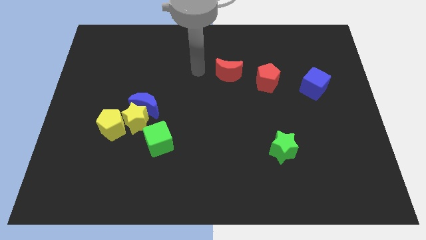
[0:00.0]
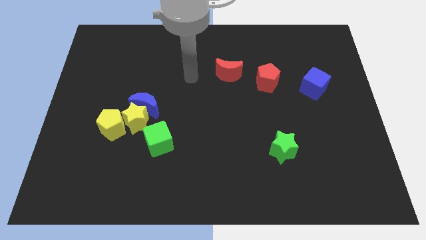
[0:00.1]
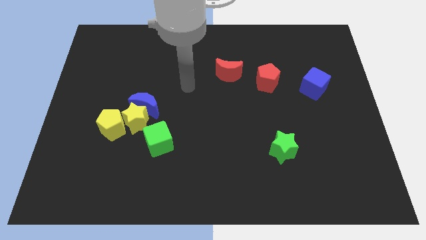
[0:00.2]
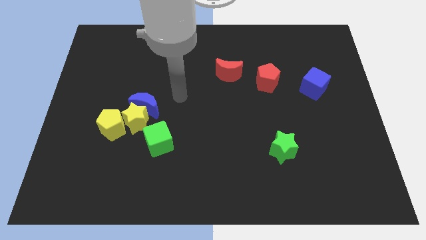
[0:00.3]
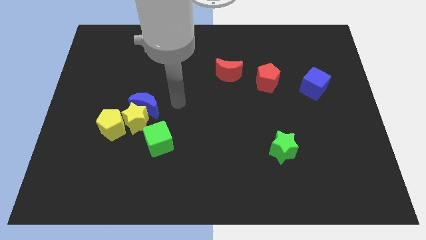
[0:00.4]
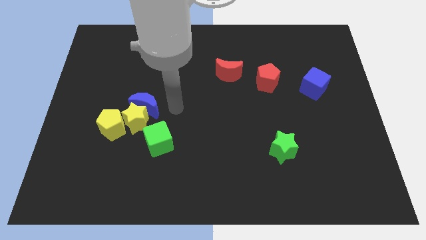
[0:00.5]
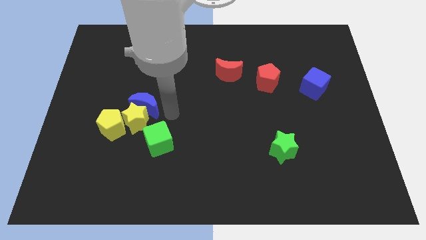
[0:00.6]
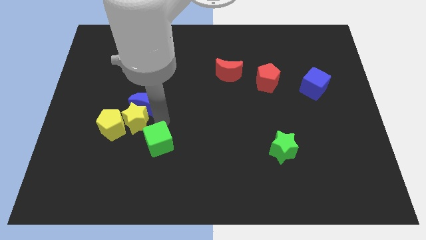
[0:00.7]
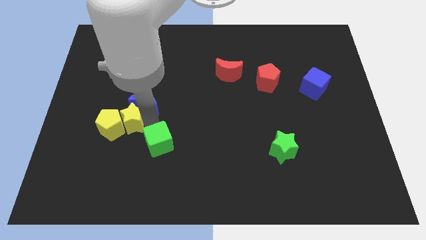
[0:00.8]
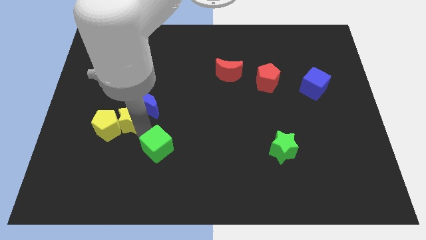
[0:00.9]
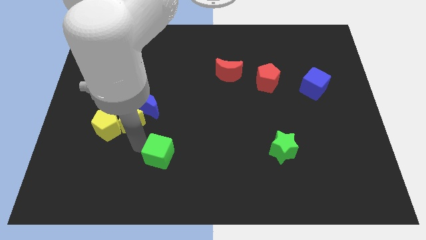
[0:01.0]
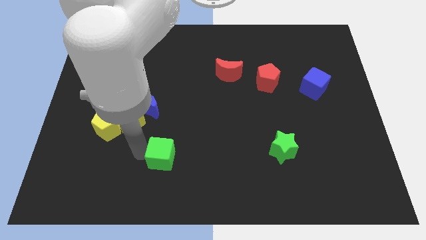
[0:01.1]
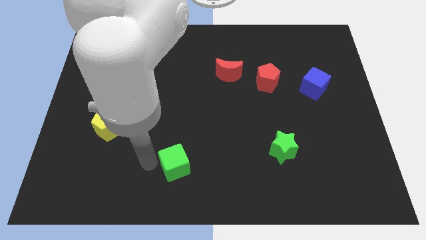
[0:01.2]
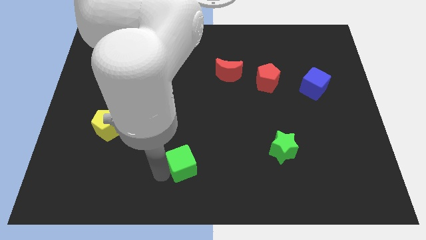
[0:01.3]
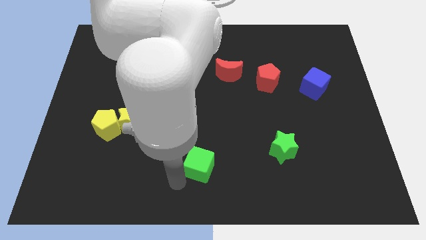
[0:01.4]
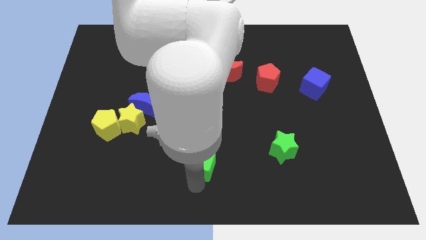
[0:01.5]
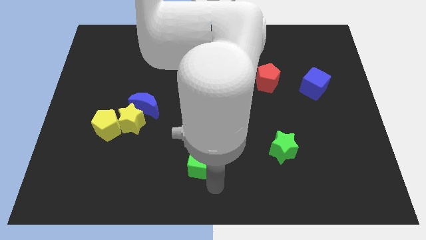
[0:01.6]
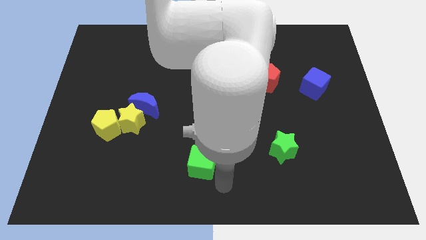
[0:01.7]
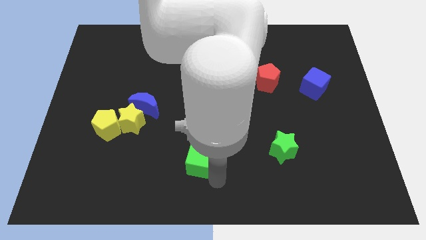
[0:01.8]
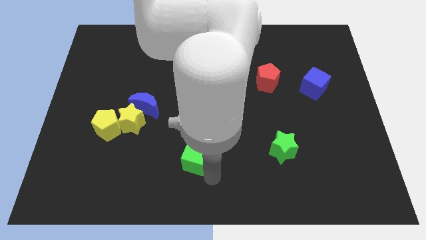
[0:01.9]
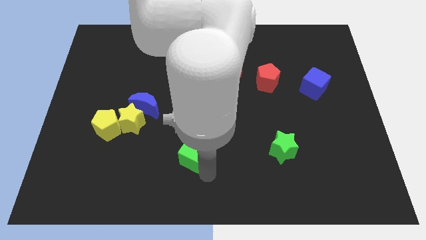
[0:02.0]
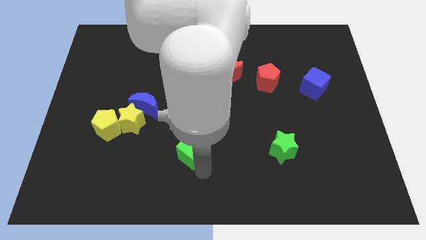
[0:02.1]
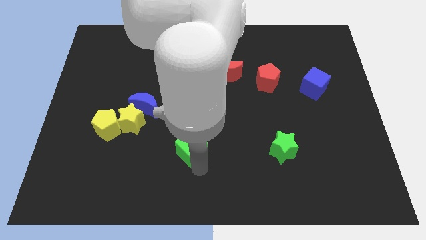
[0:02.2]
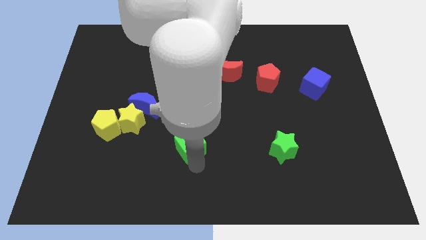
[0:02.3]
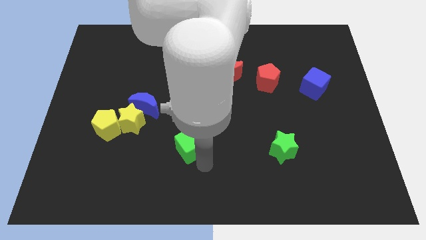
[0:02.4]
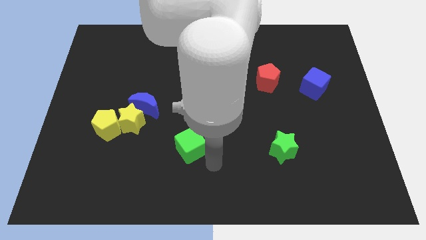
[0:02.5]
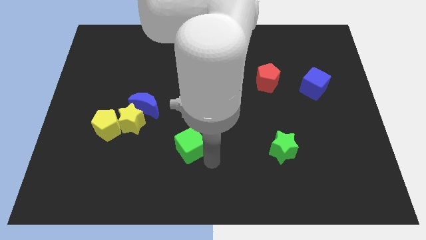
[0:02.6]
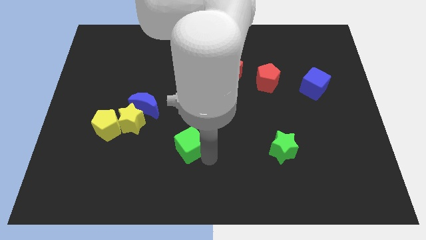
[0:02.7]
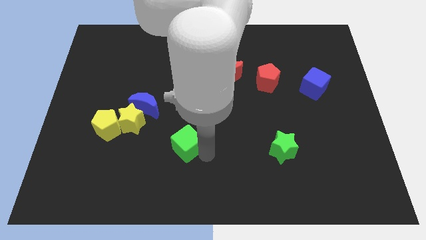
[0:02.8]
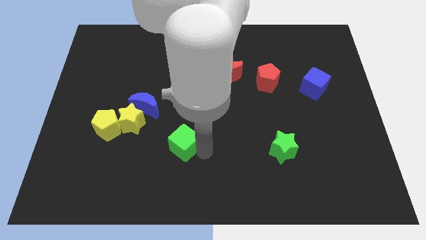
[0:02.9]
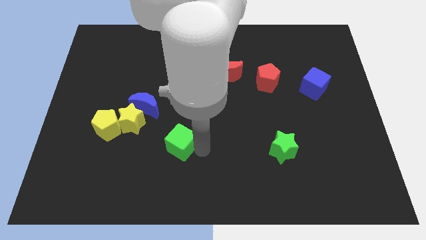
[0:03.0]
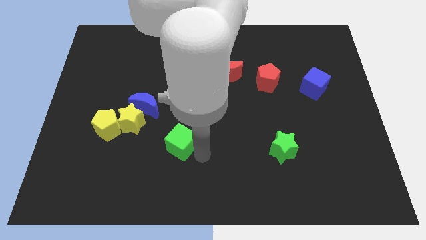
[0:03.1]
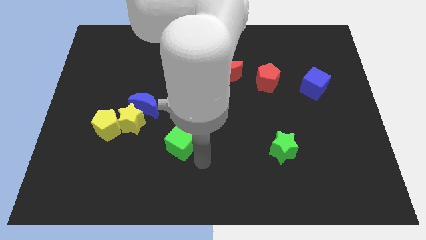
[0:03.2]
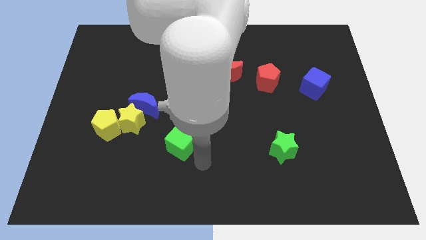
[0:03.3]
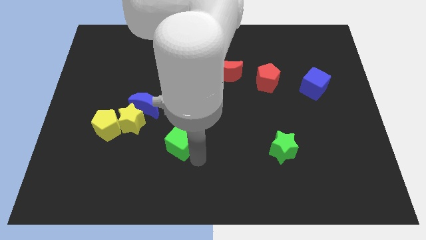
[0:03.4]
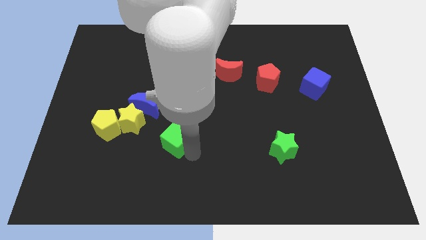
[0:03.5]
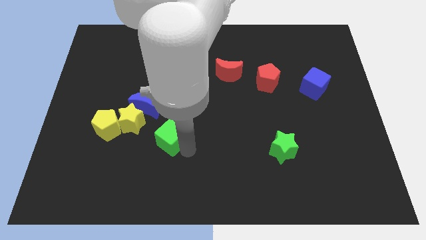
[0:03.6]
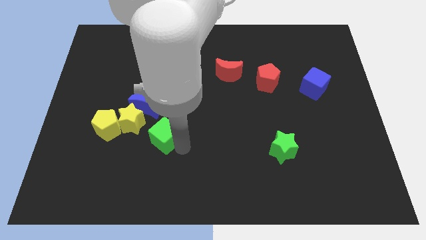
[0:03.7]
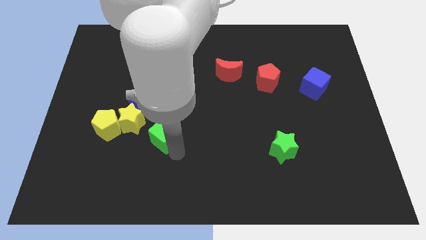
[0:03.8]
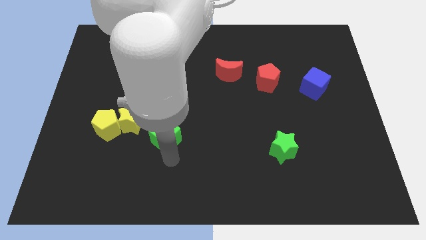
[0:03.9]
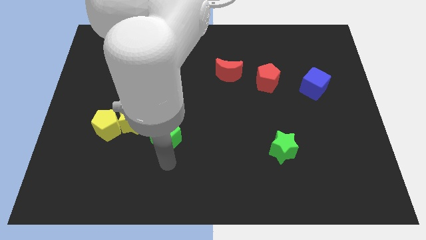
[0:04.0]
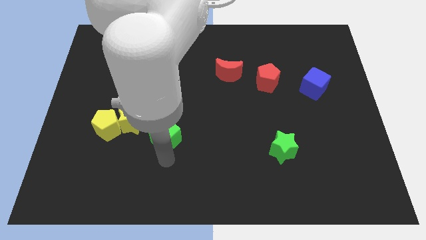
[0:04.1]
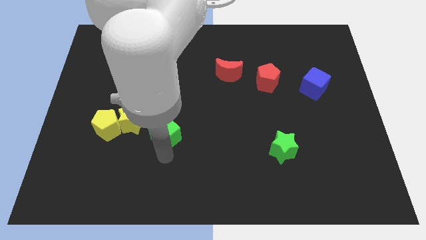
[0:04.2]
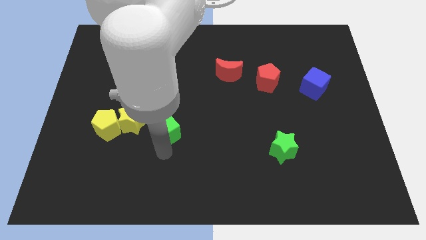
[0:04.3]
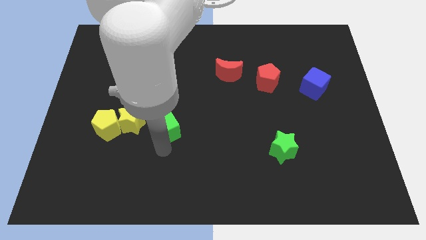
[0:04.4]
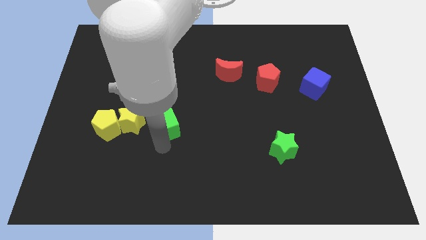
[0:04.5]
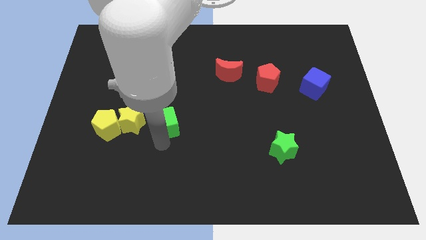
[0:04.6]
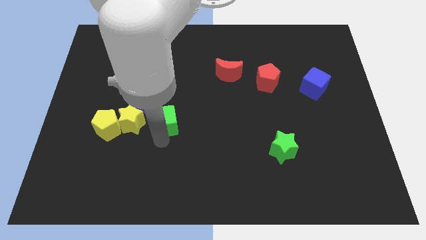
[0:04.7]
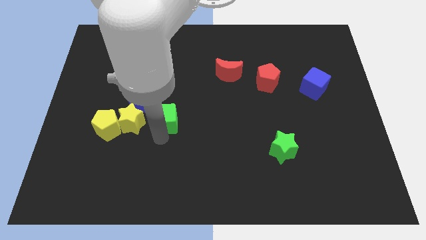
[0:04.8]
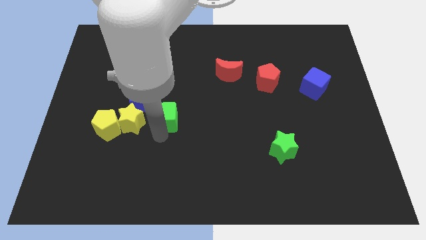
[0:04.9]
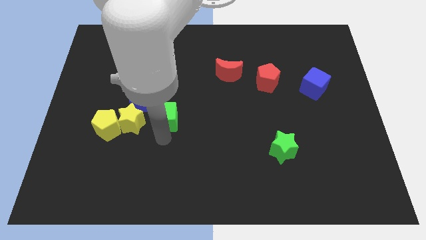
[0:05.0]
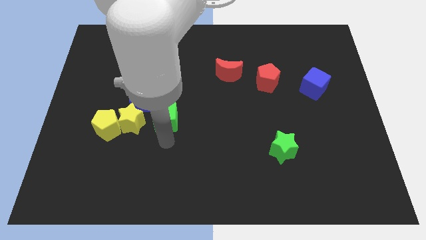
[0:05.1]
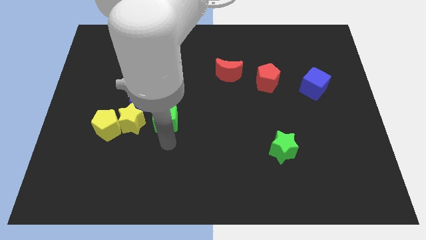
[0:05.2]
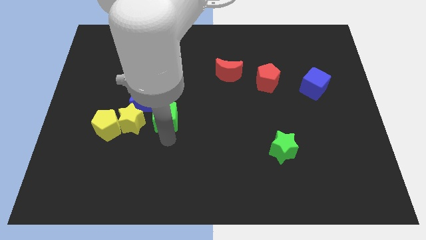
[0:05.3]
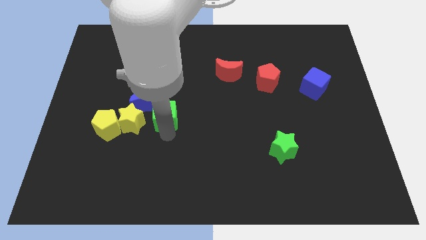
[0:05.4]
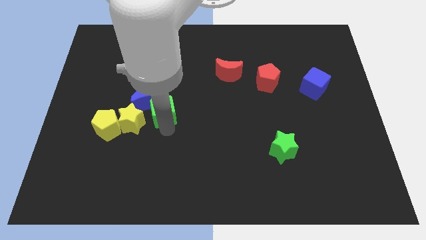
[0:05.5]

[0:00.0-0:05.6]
slide the green cube upwards a bit

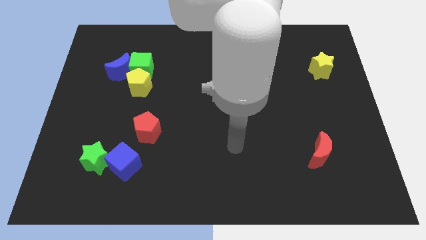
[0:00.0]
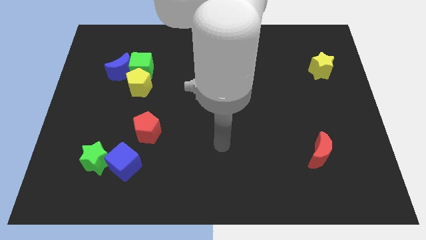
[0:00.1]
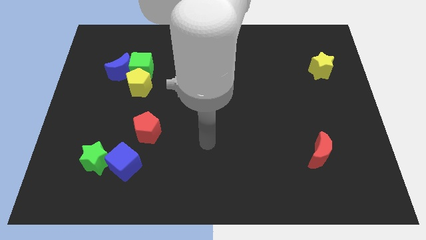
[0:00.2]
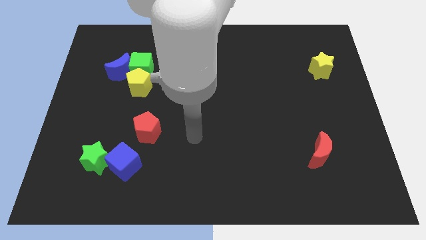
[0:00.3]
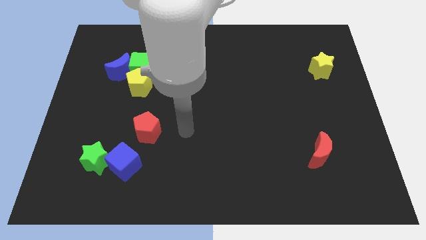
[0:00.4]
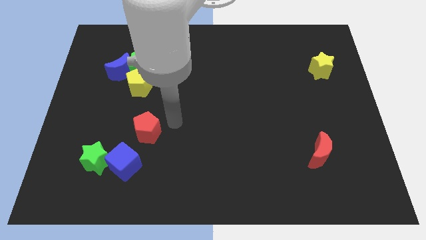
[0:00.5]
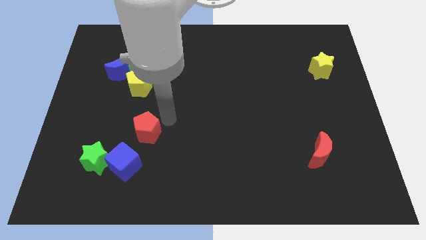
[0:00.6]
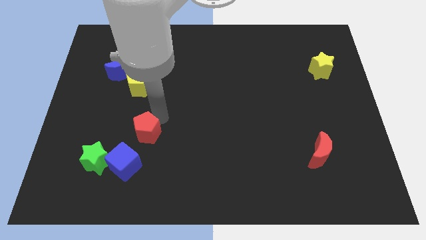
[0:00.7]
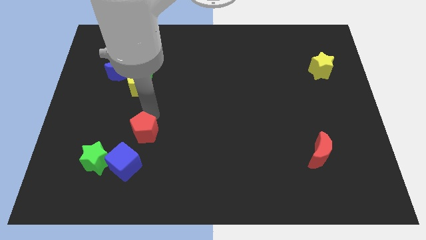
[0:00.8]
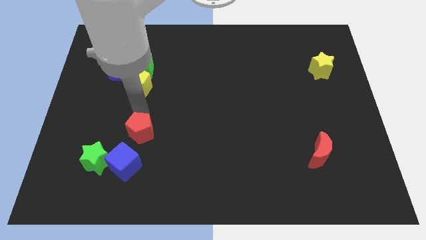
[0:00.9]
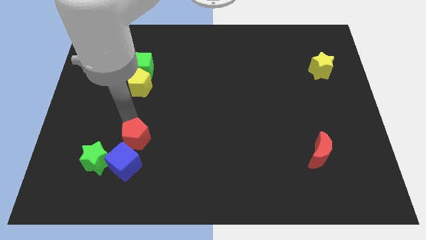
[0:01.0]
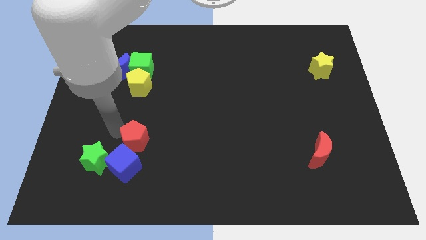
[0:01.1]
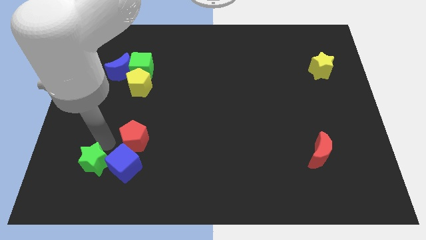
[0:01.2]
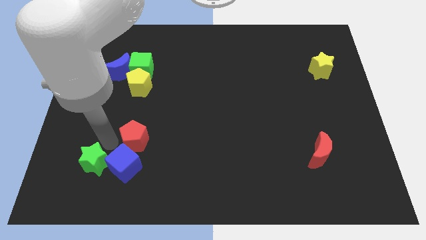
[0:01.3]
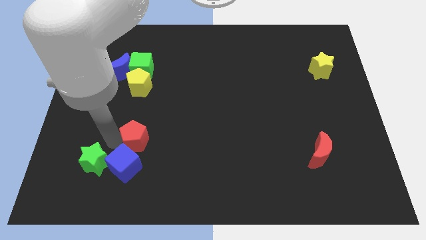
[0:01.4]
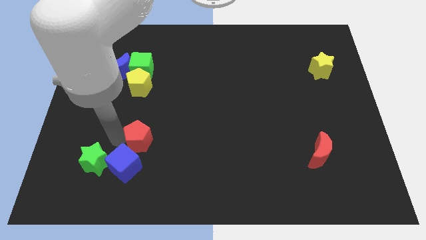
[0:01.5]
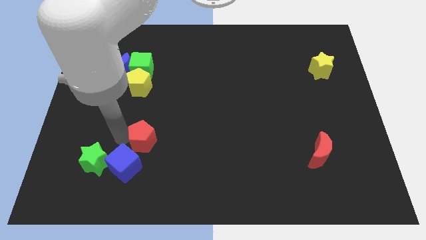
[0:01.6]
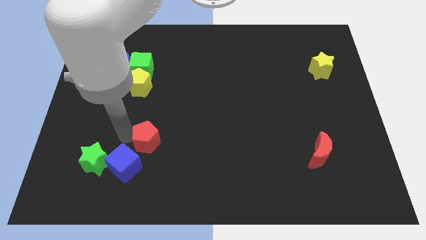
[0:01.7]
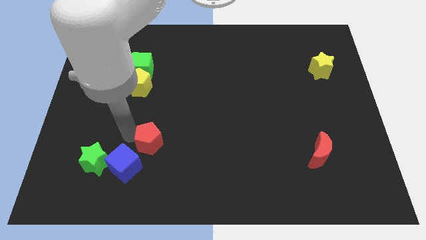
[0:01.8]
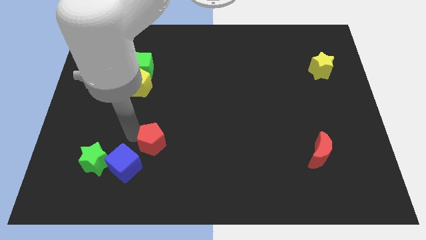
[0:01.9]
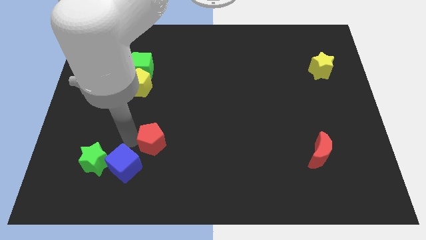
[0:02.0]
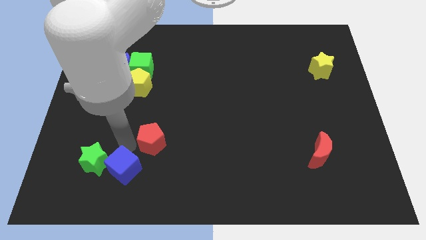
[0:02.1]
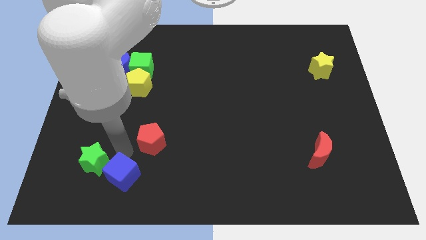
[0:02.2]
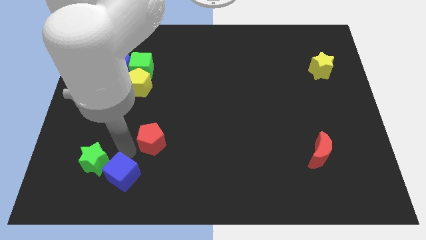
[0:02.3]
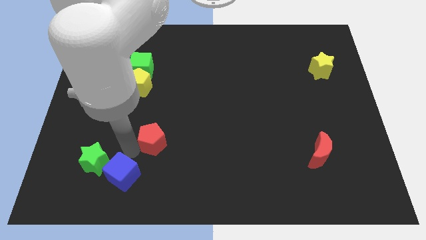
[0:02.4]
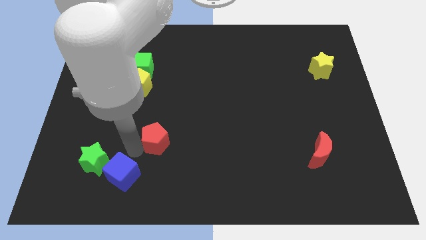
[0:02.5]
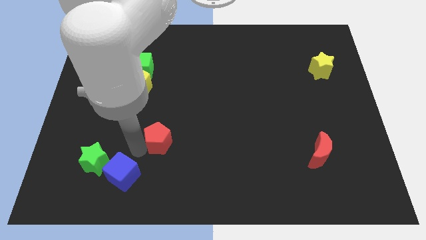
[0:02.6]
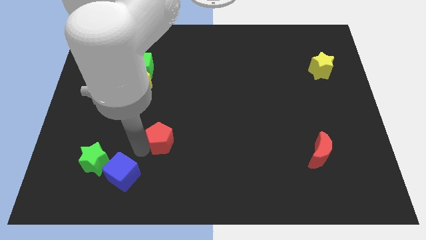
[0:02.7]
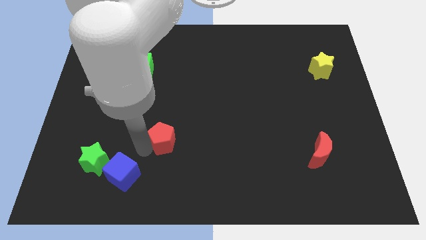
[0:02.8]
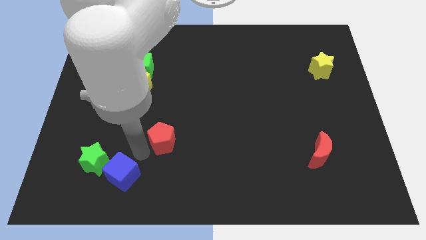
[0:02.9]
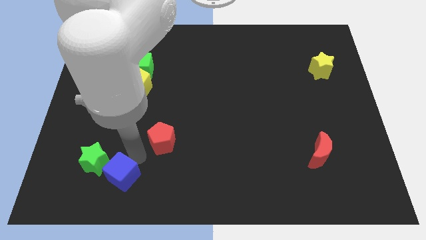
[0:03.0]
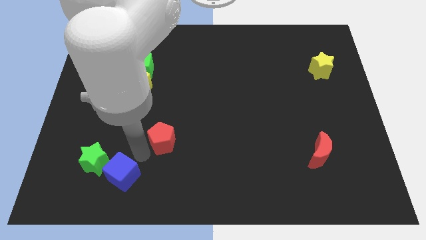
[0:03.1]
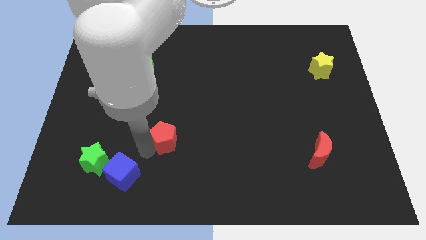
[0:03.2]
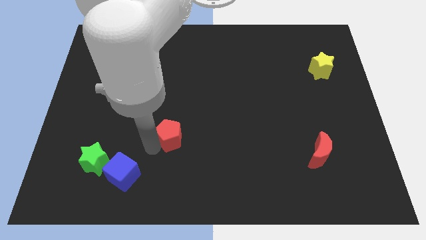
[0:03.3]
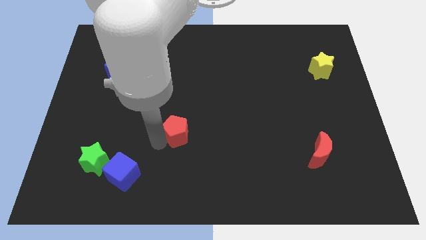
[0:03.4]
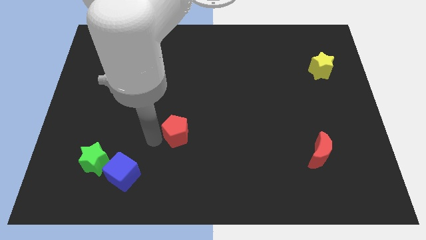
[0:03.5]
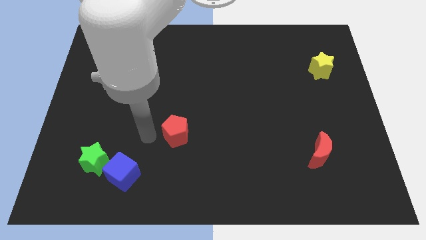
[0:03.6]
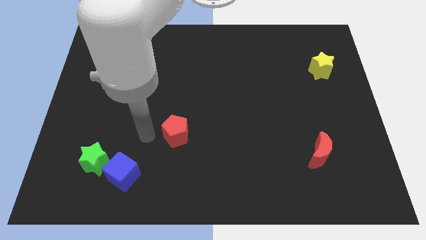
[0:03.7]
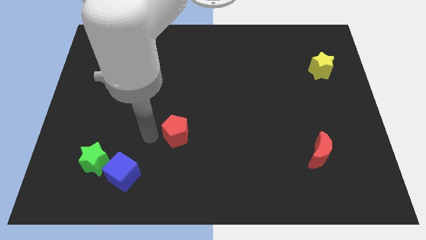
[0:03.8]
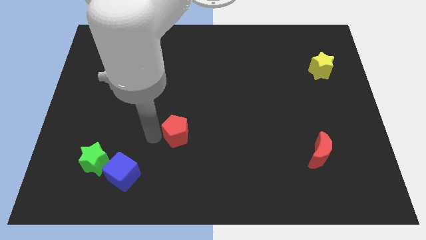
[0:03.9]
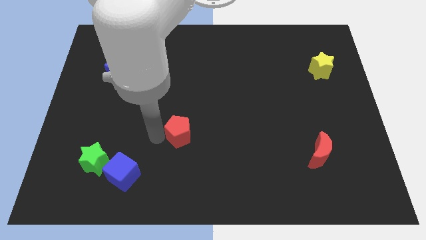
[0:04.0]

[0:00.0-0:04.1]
slide the red pentagon to the right a little bit
